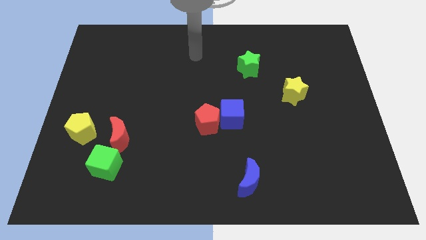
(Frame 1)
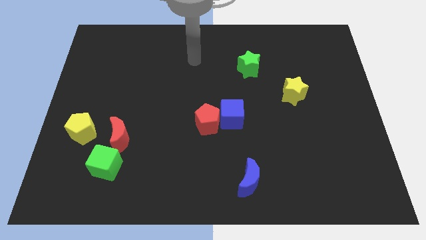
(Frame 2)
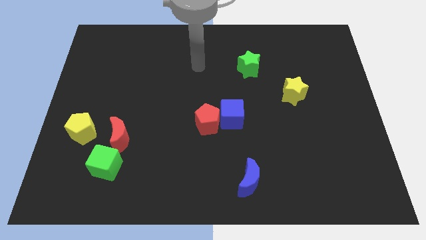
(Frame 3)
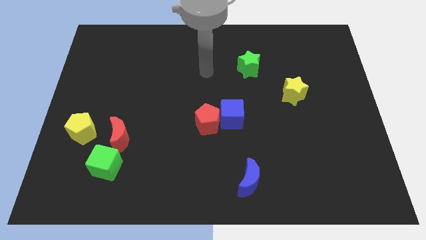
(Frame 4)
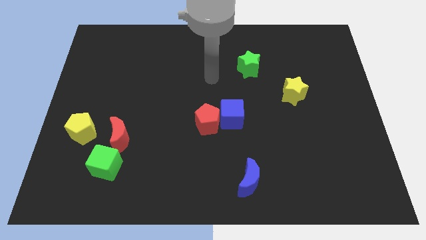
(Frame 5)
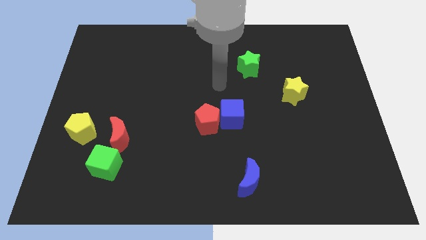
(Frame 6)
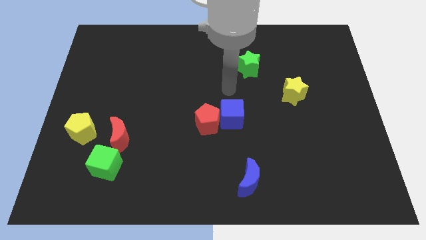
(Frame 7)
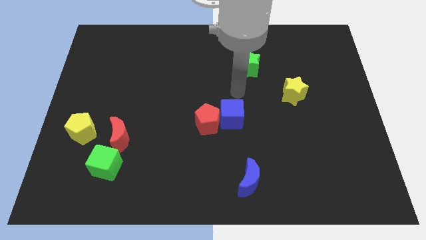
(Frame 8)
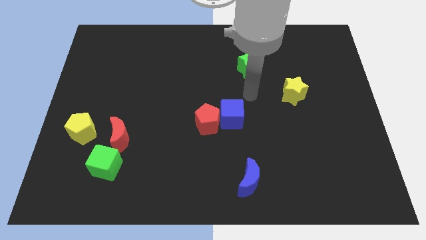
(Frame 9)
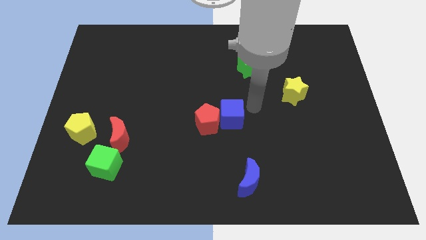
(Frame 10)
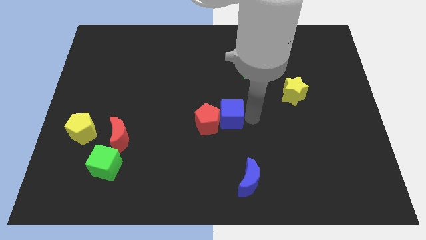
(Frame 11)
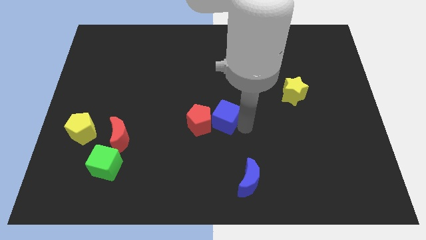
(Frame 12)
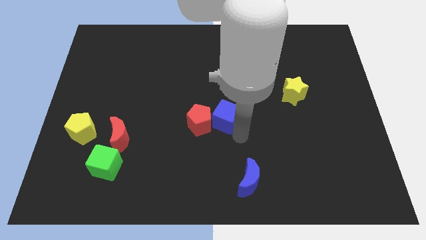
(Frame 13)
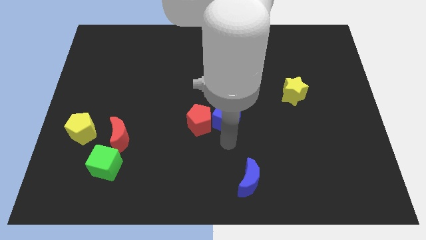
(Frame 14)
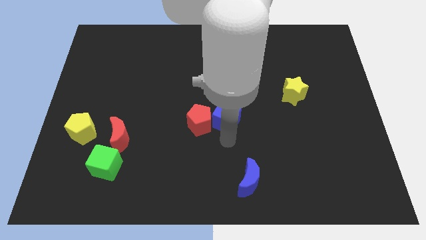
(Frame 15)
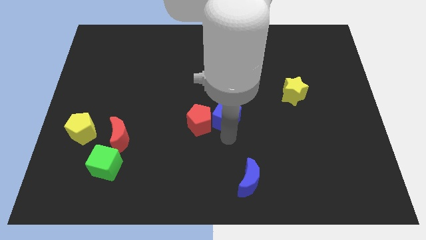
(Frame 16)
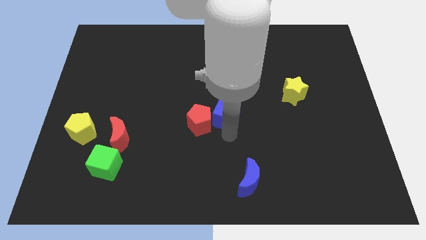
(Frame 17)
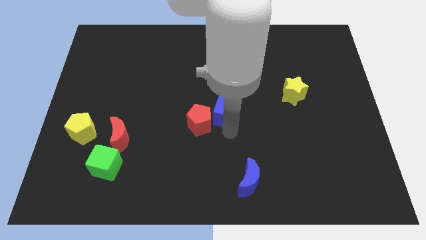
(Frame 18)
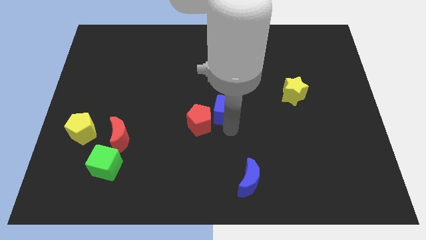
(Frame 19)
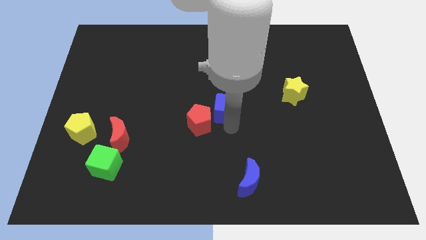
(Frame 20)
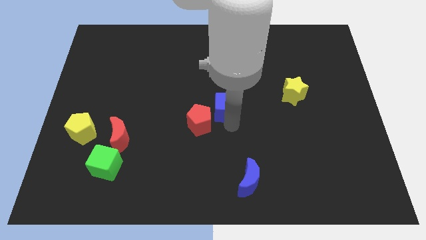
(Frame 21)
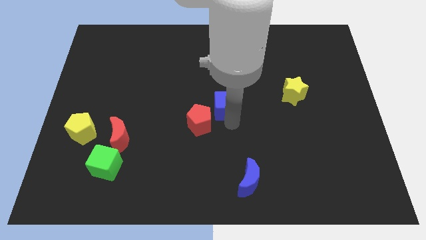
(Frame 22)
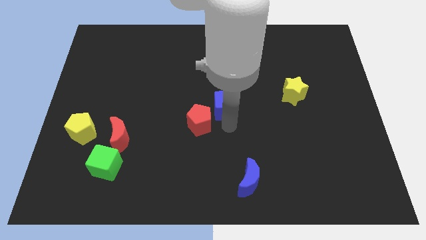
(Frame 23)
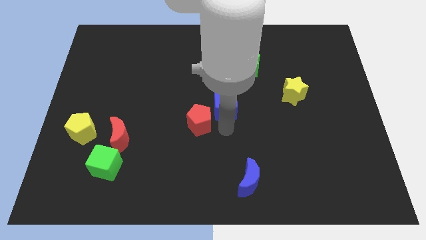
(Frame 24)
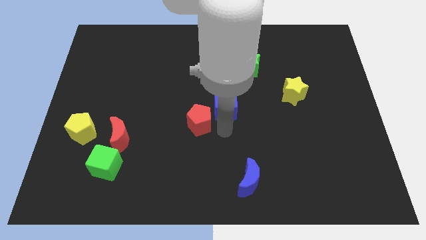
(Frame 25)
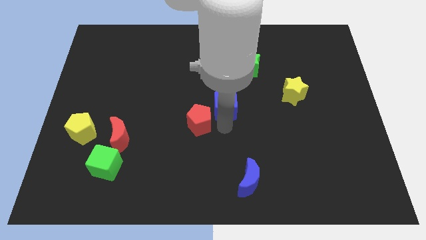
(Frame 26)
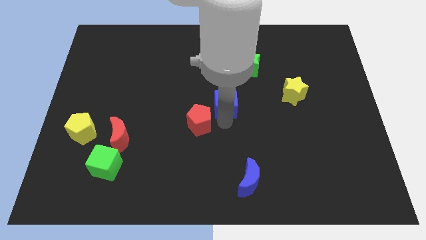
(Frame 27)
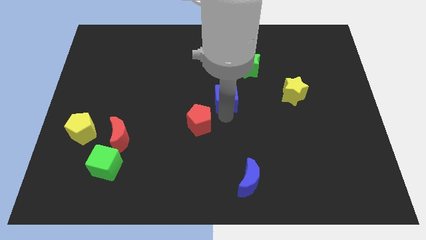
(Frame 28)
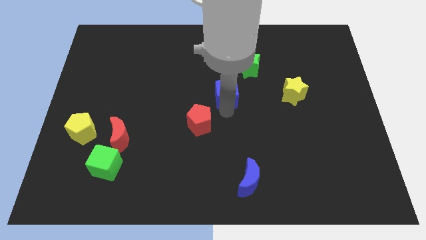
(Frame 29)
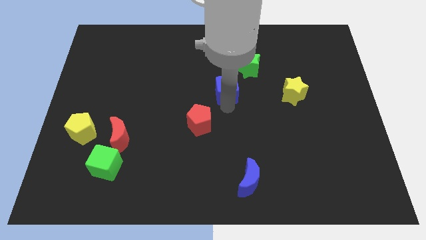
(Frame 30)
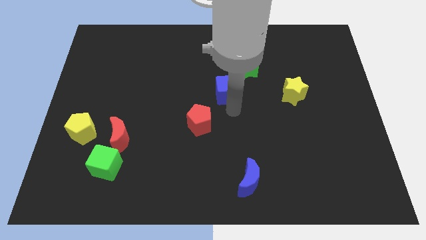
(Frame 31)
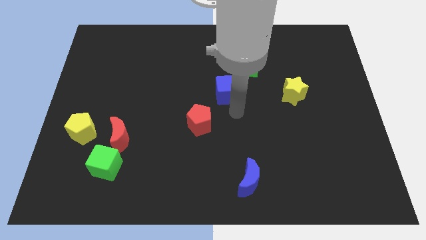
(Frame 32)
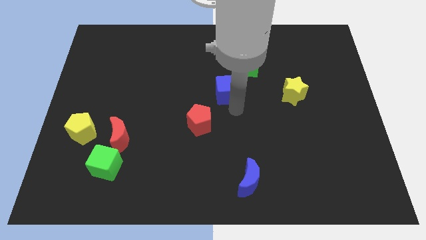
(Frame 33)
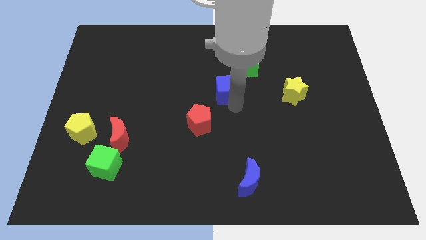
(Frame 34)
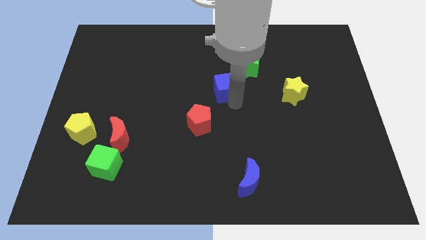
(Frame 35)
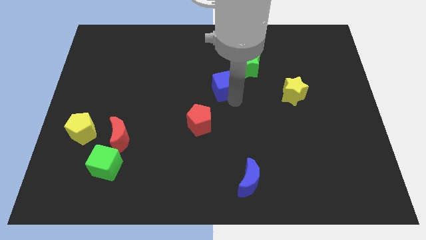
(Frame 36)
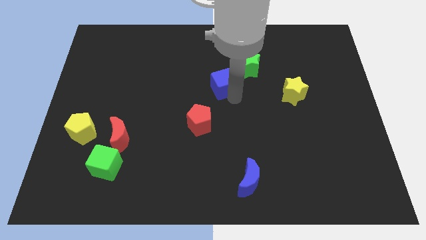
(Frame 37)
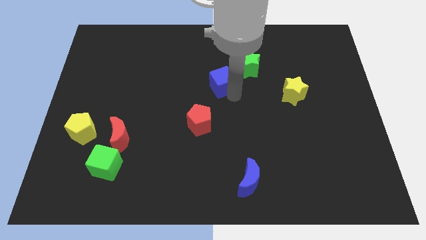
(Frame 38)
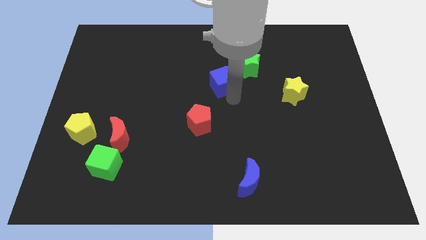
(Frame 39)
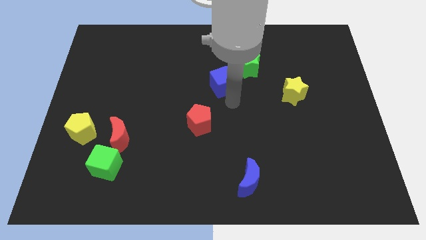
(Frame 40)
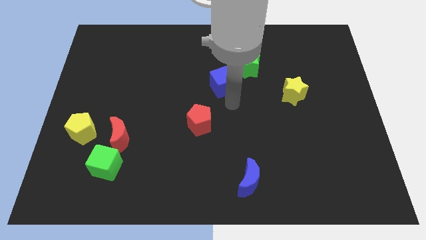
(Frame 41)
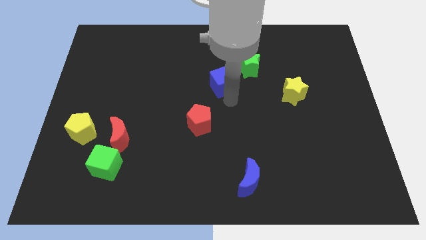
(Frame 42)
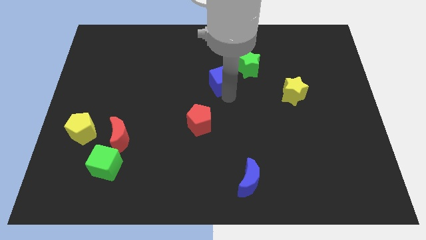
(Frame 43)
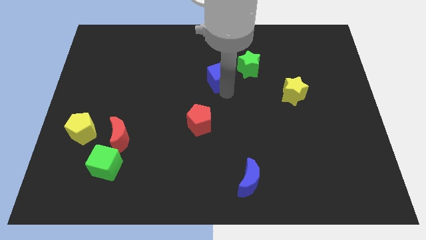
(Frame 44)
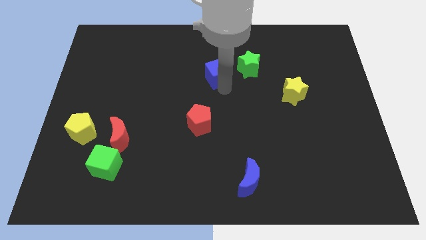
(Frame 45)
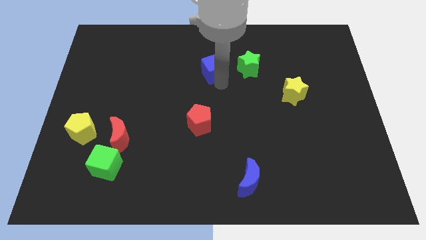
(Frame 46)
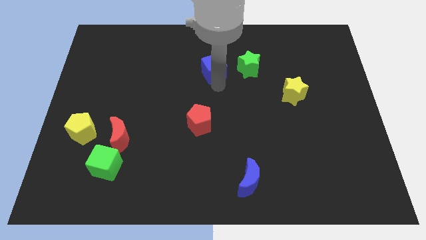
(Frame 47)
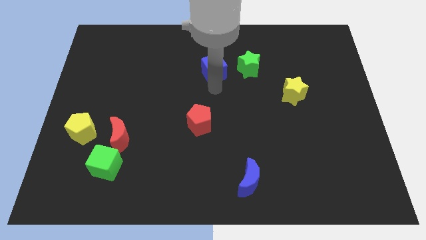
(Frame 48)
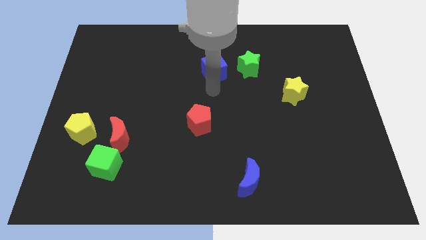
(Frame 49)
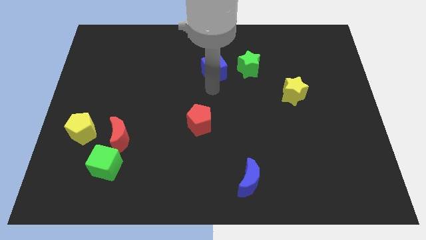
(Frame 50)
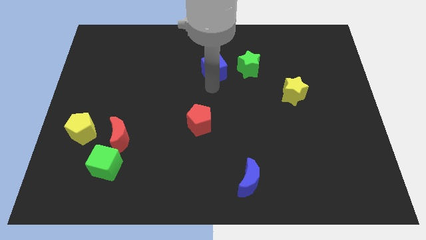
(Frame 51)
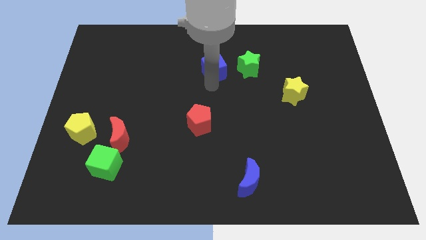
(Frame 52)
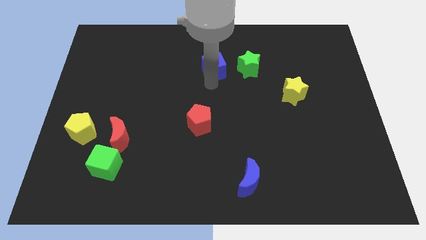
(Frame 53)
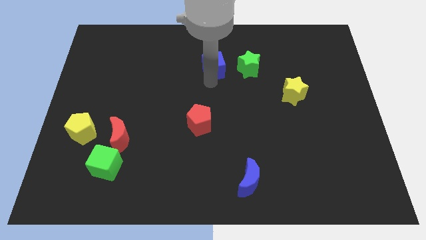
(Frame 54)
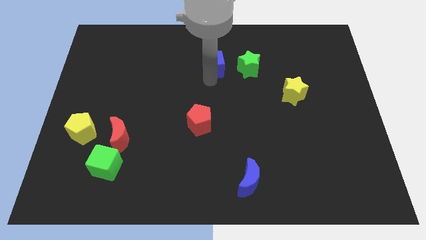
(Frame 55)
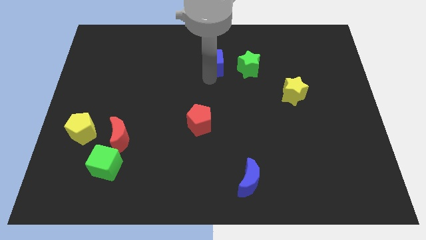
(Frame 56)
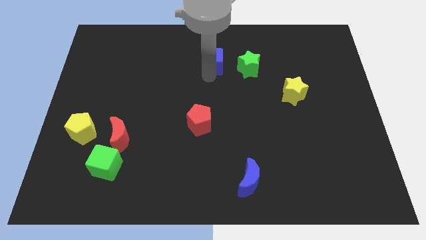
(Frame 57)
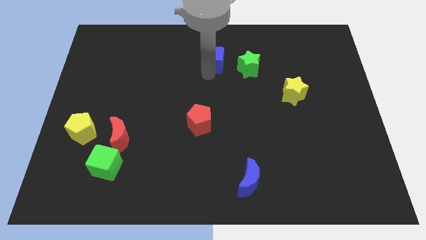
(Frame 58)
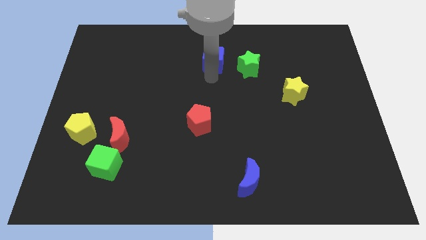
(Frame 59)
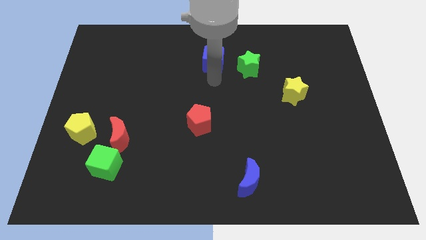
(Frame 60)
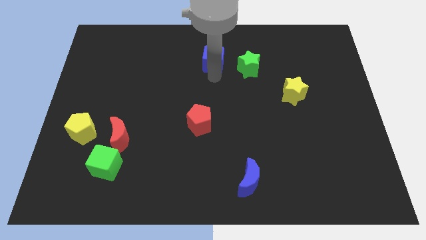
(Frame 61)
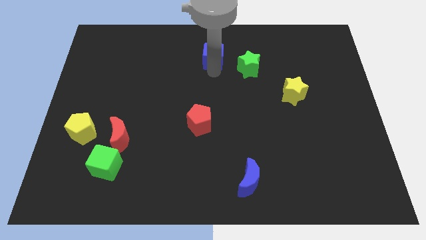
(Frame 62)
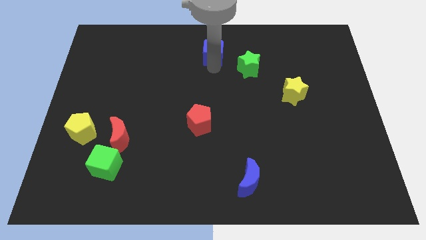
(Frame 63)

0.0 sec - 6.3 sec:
move the blue cube to the towards your base

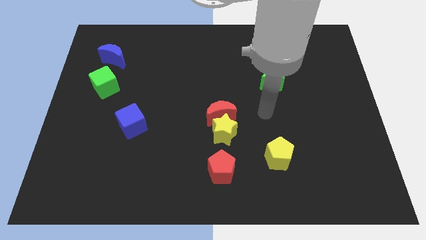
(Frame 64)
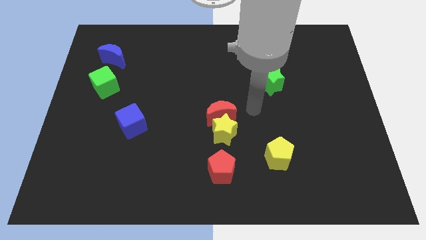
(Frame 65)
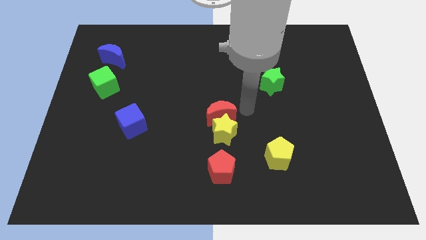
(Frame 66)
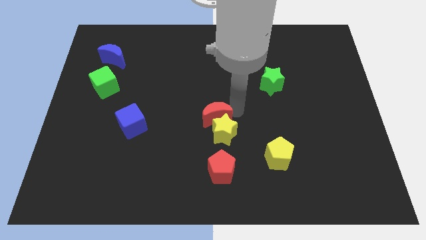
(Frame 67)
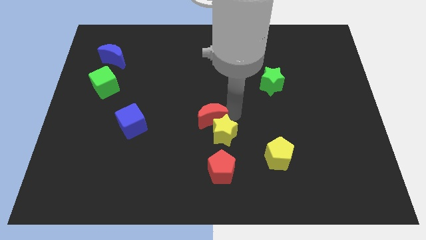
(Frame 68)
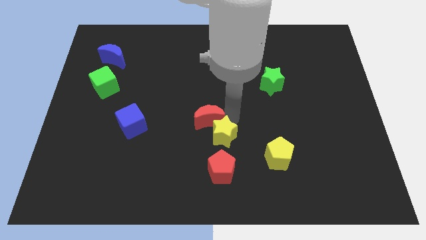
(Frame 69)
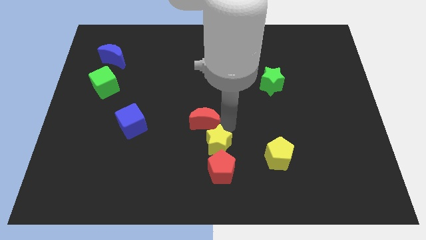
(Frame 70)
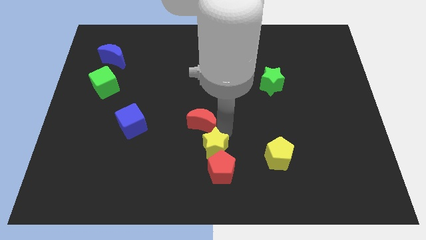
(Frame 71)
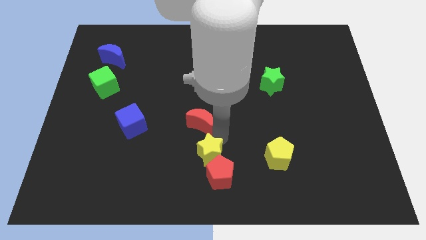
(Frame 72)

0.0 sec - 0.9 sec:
push the yellow star to the bottom
